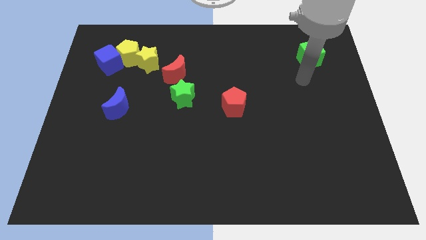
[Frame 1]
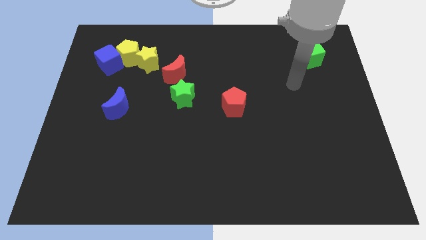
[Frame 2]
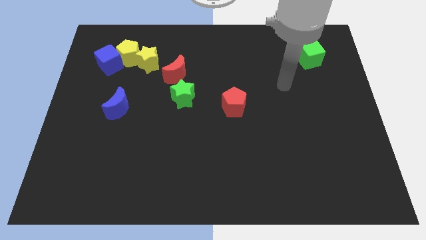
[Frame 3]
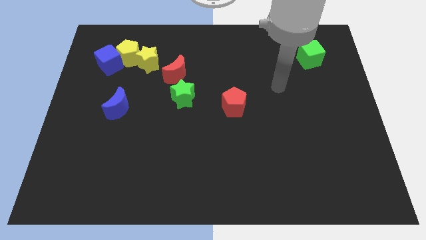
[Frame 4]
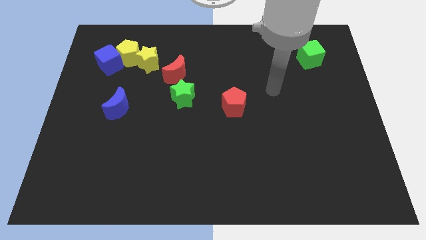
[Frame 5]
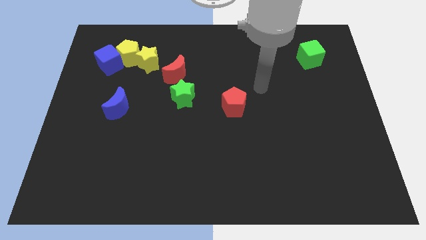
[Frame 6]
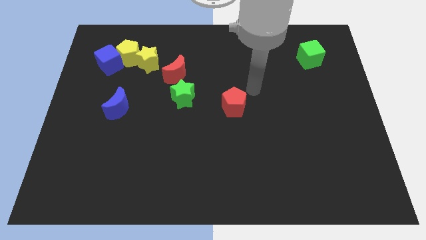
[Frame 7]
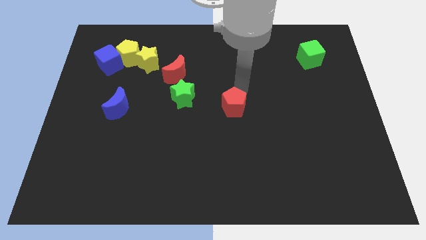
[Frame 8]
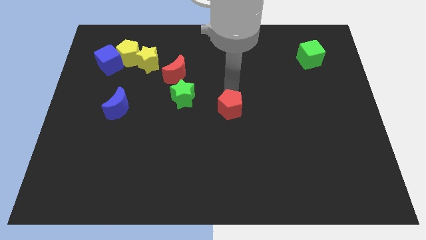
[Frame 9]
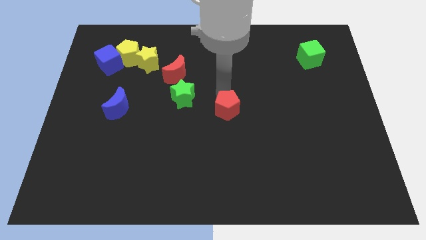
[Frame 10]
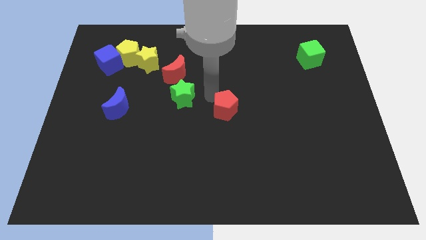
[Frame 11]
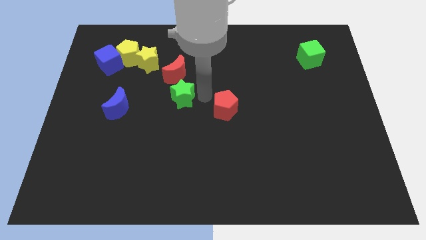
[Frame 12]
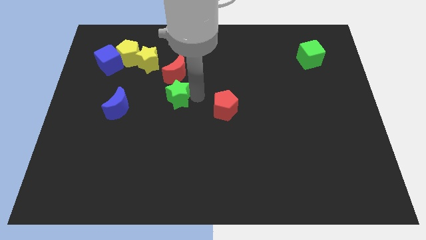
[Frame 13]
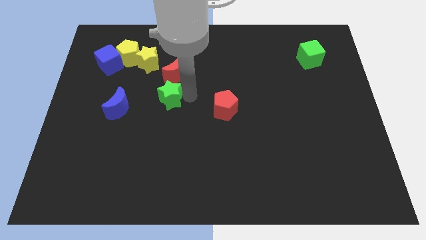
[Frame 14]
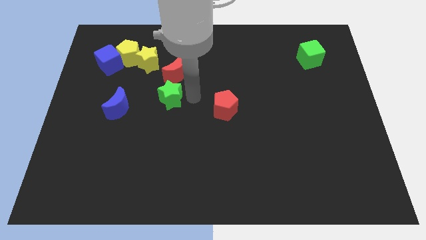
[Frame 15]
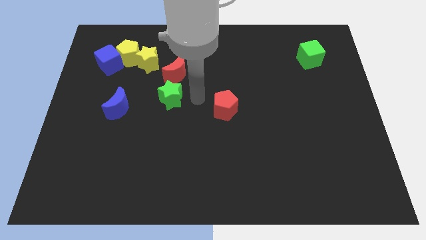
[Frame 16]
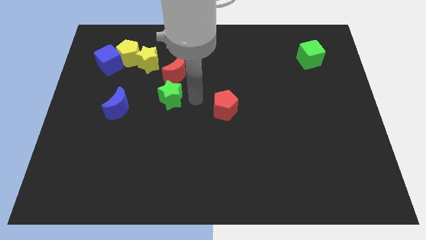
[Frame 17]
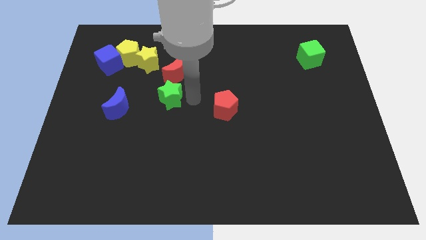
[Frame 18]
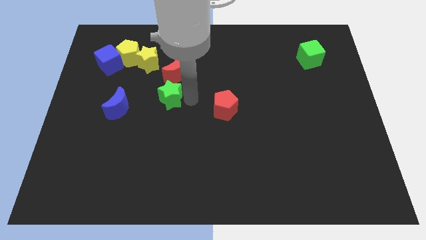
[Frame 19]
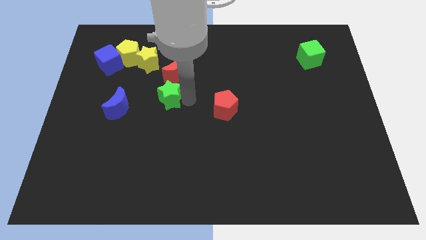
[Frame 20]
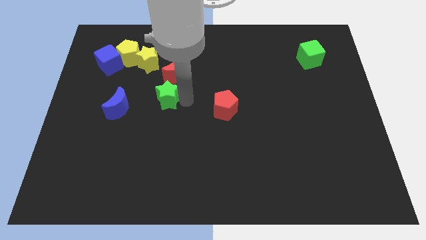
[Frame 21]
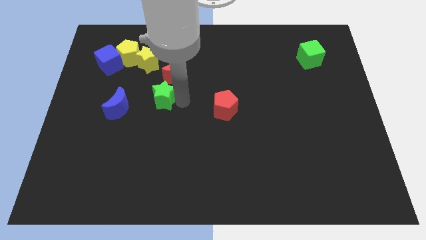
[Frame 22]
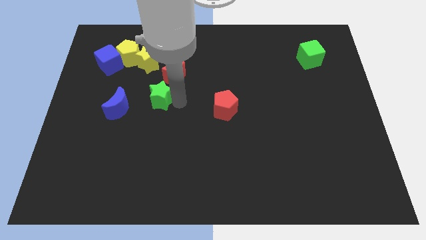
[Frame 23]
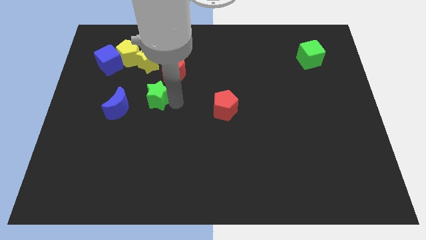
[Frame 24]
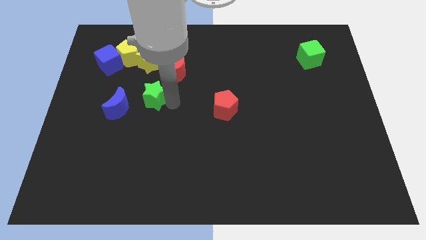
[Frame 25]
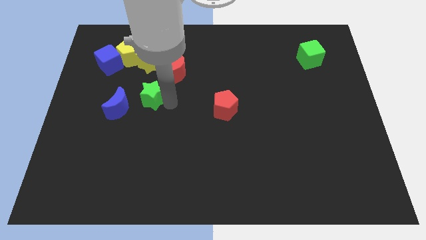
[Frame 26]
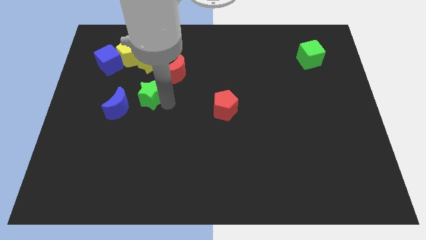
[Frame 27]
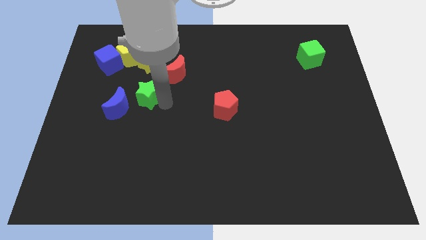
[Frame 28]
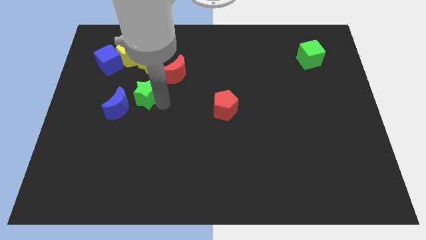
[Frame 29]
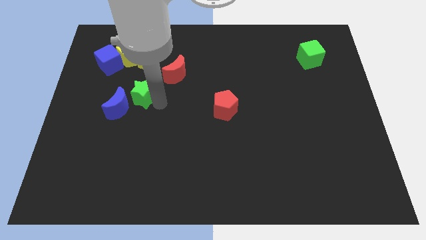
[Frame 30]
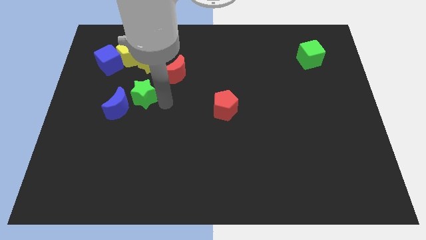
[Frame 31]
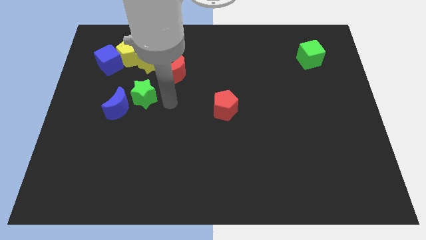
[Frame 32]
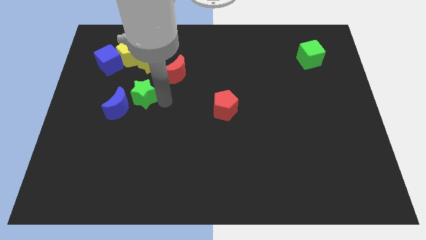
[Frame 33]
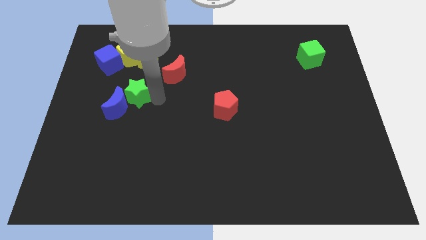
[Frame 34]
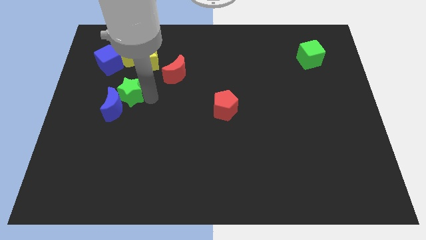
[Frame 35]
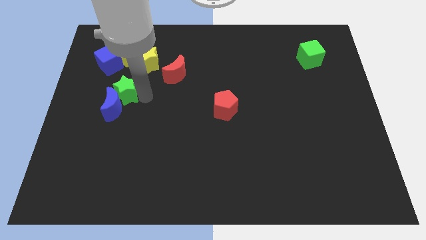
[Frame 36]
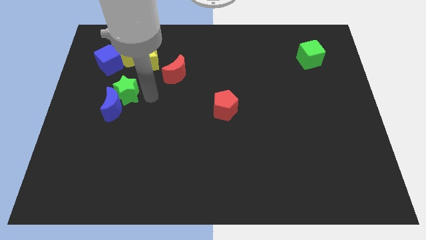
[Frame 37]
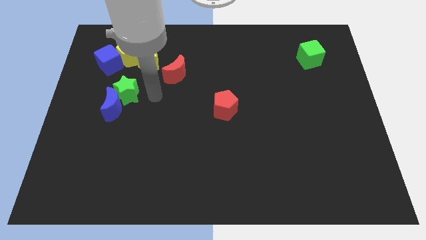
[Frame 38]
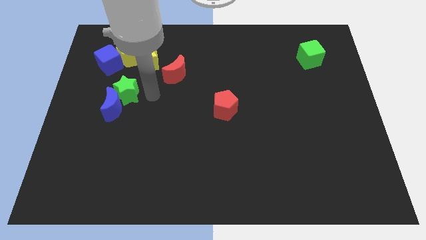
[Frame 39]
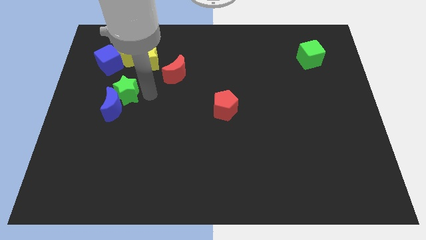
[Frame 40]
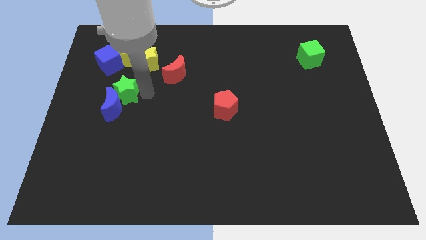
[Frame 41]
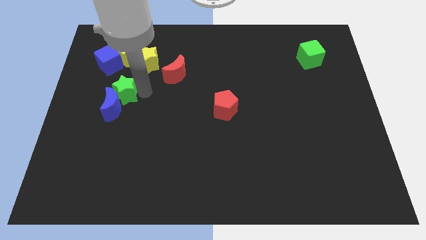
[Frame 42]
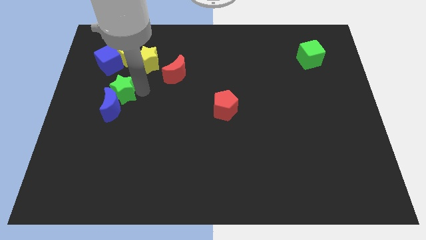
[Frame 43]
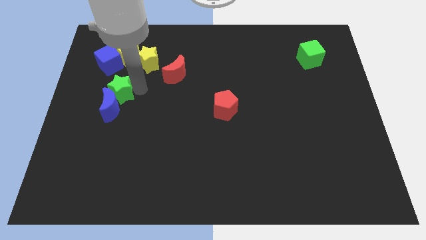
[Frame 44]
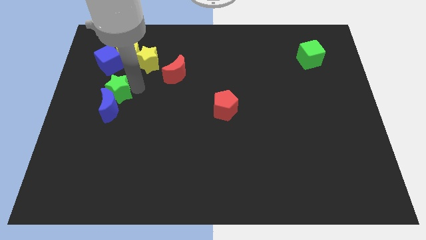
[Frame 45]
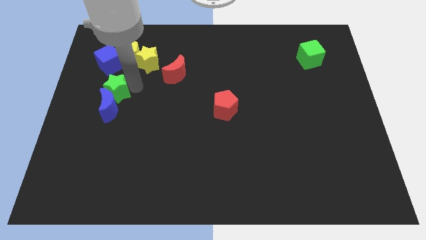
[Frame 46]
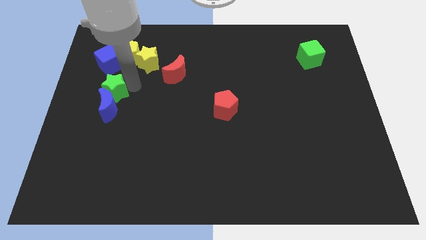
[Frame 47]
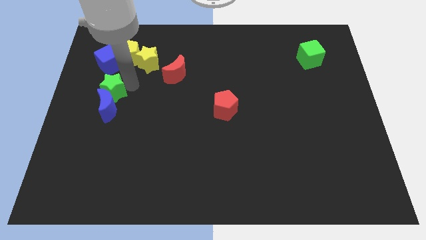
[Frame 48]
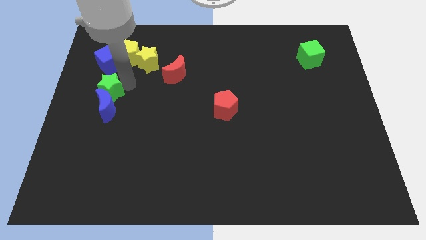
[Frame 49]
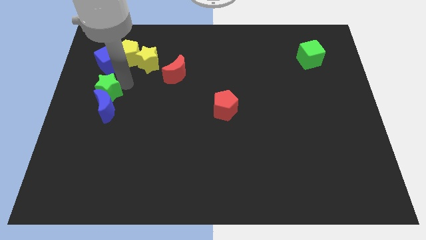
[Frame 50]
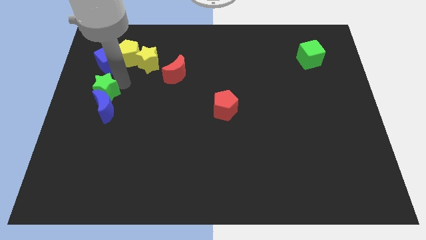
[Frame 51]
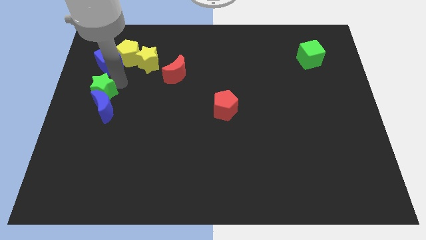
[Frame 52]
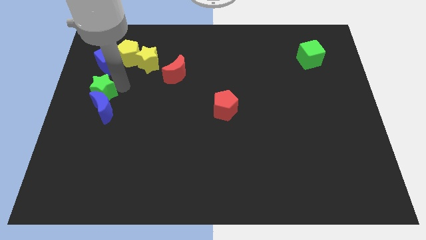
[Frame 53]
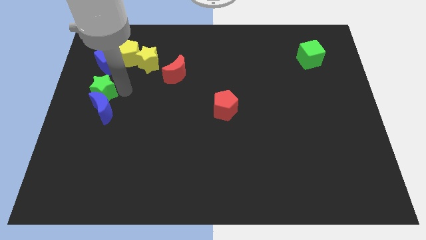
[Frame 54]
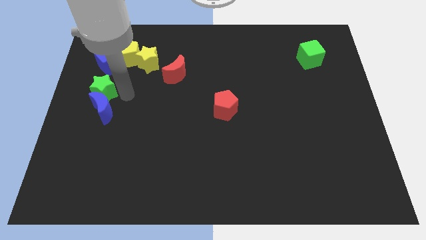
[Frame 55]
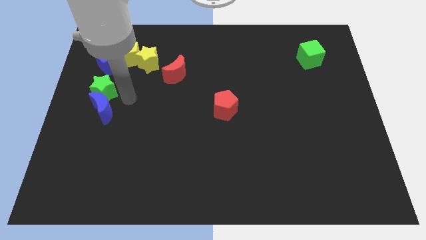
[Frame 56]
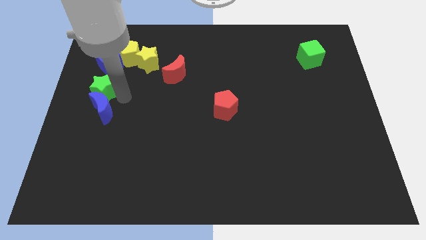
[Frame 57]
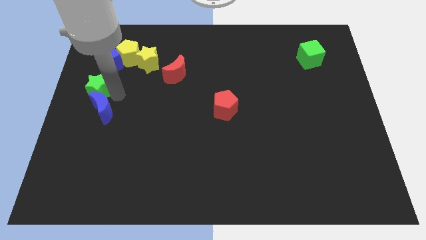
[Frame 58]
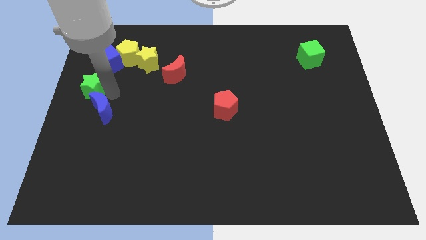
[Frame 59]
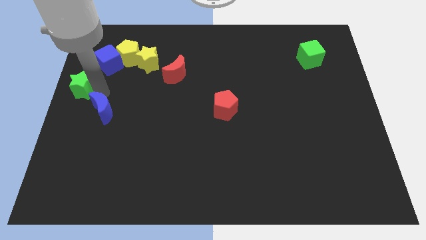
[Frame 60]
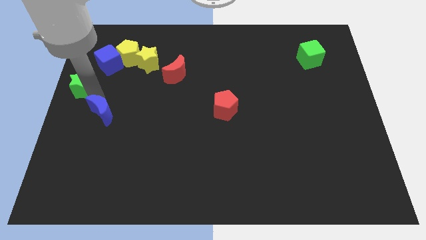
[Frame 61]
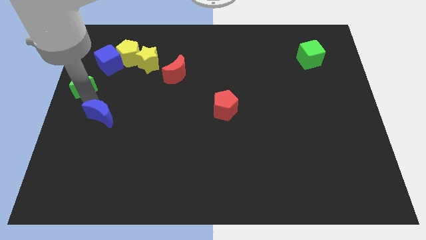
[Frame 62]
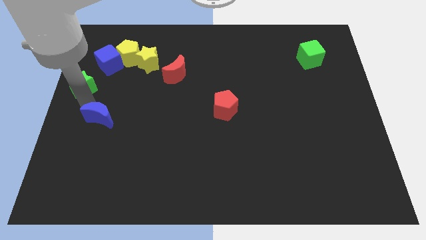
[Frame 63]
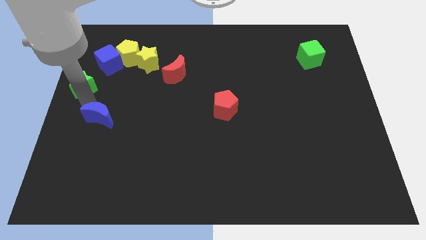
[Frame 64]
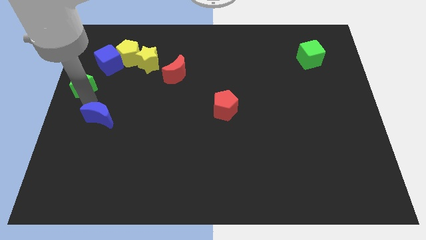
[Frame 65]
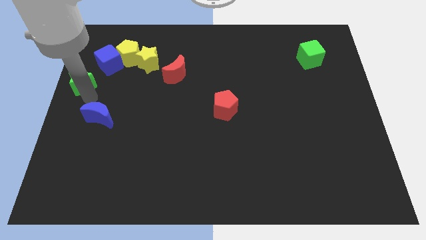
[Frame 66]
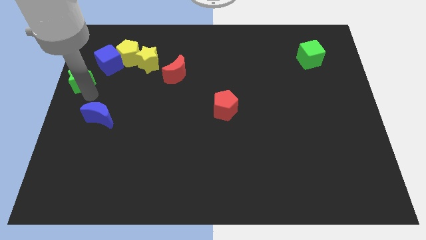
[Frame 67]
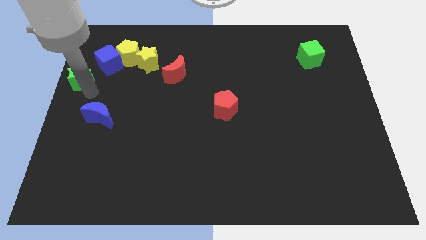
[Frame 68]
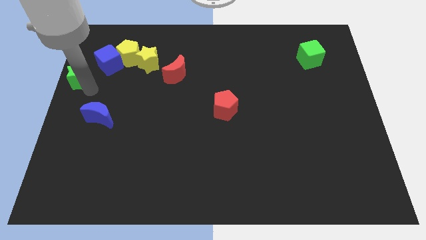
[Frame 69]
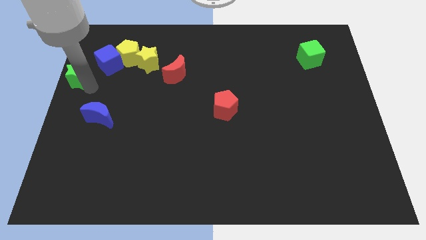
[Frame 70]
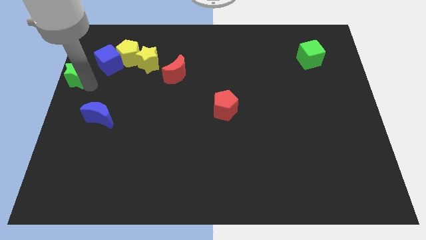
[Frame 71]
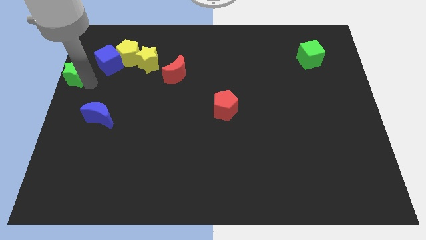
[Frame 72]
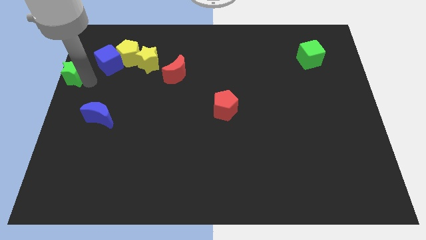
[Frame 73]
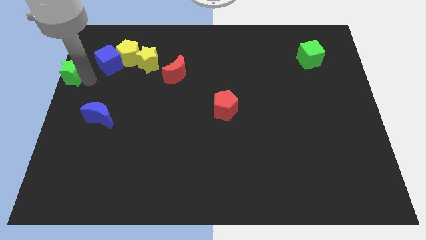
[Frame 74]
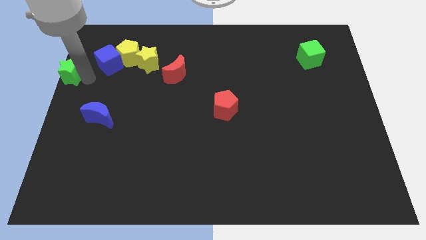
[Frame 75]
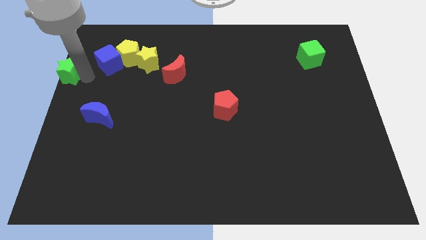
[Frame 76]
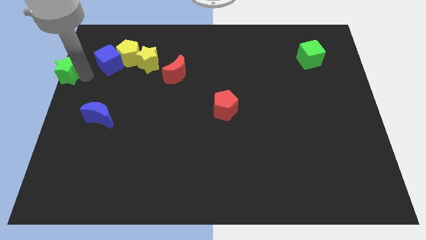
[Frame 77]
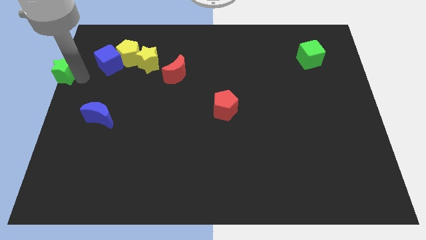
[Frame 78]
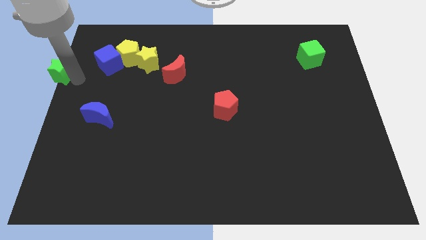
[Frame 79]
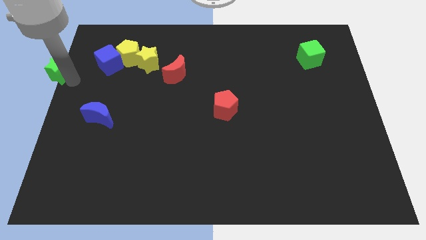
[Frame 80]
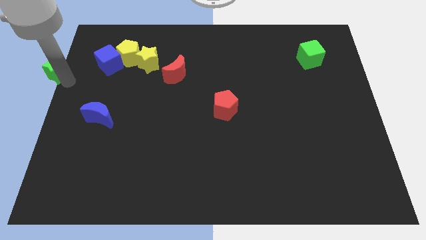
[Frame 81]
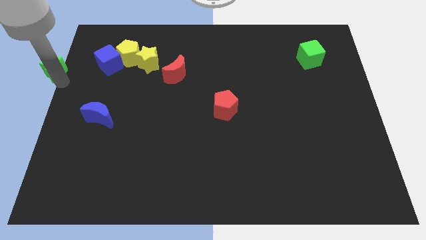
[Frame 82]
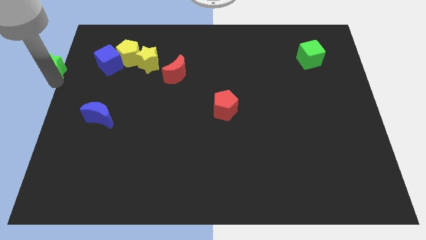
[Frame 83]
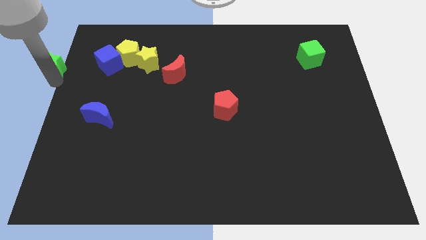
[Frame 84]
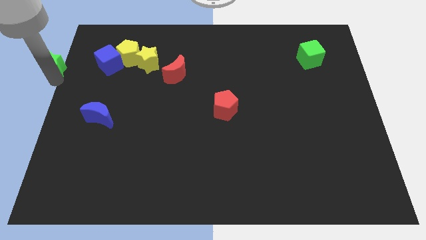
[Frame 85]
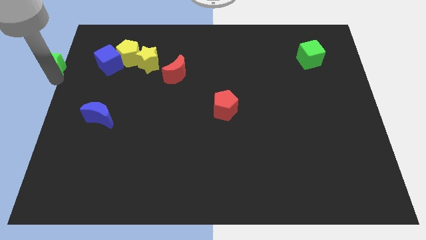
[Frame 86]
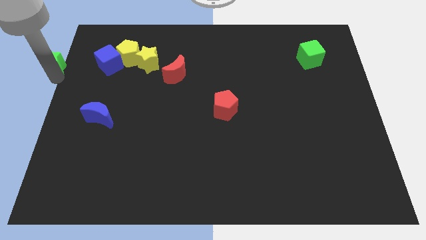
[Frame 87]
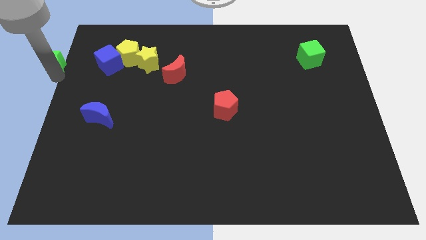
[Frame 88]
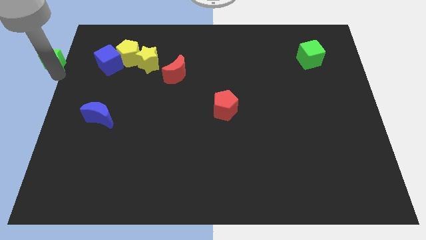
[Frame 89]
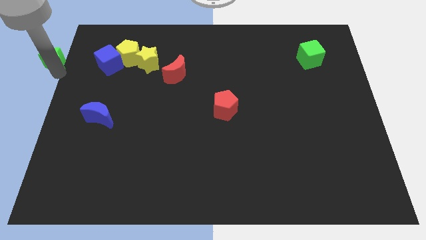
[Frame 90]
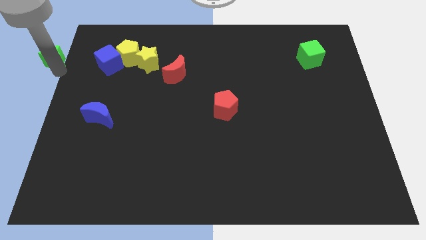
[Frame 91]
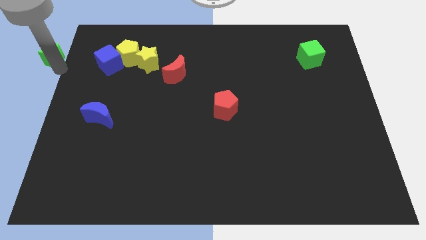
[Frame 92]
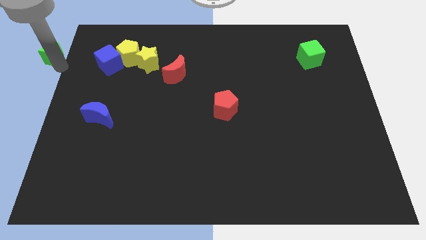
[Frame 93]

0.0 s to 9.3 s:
push the green star to the top left
